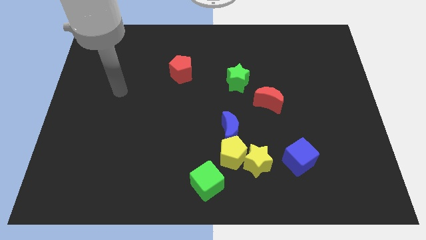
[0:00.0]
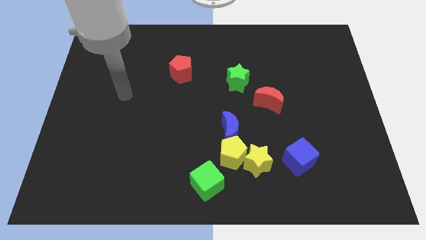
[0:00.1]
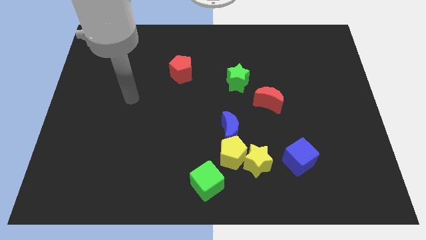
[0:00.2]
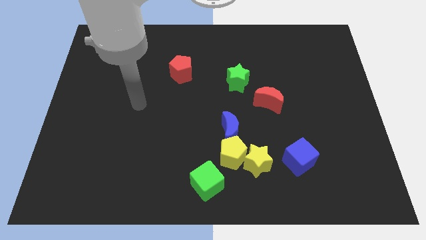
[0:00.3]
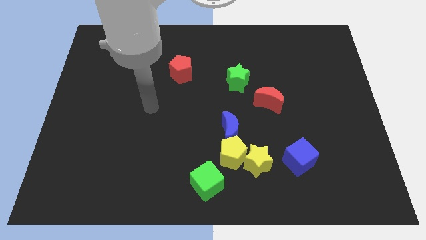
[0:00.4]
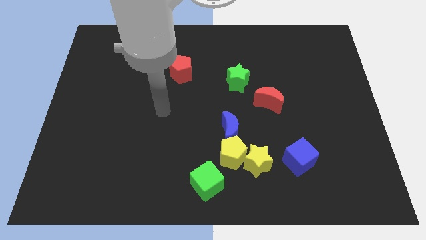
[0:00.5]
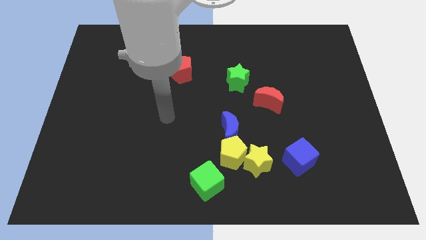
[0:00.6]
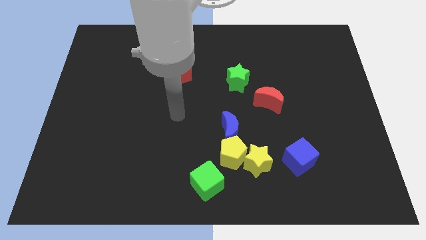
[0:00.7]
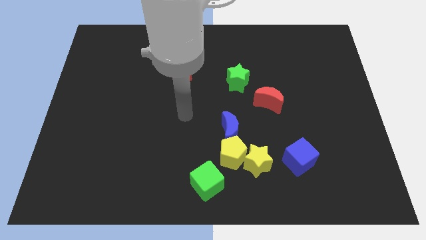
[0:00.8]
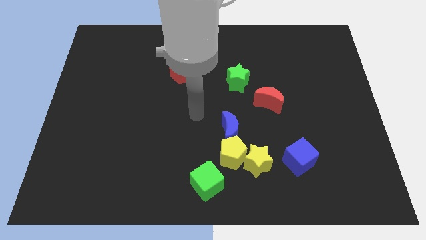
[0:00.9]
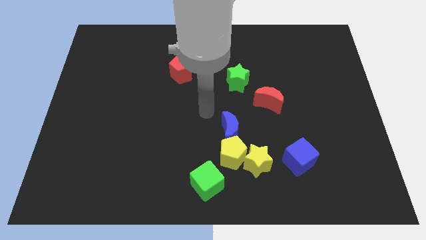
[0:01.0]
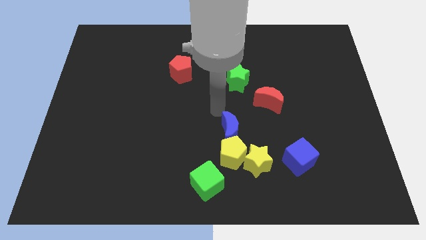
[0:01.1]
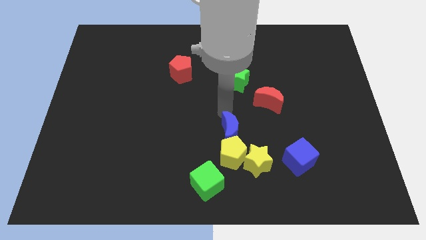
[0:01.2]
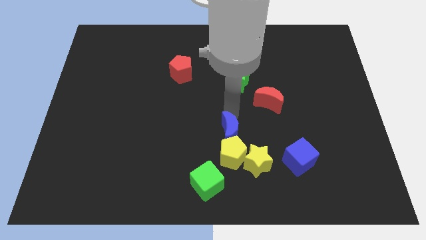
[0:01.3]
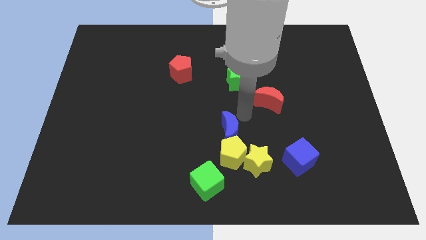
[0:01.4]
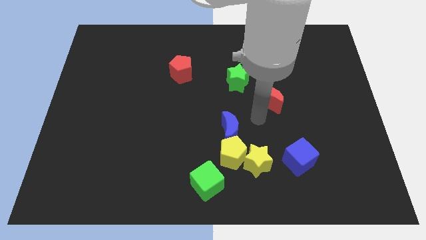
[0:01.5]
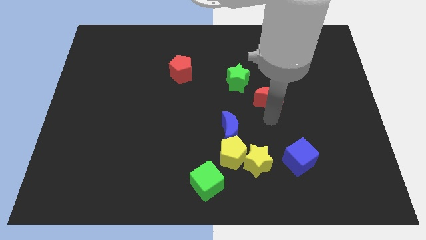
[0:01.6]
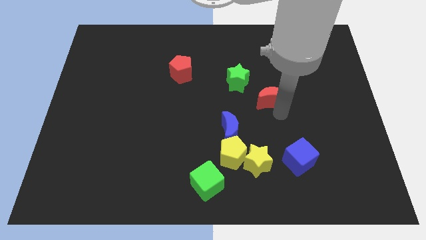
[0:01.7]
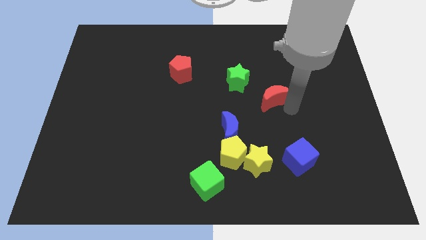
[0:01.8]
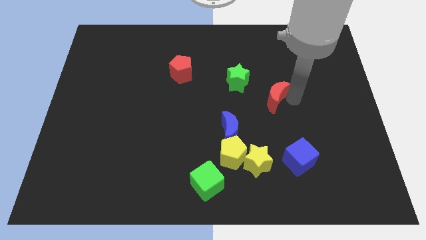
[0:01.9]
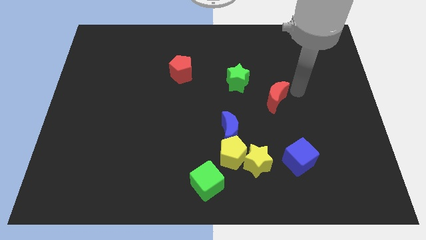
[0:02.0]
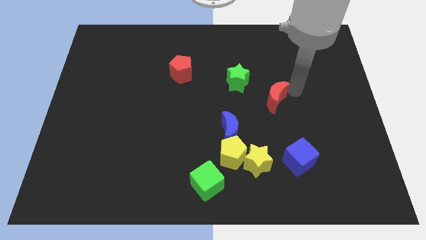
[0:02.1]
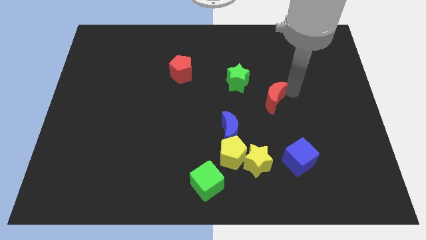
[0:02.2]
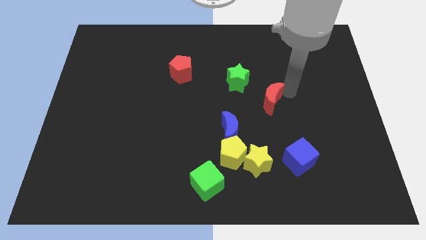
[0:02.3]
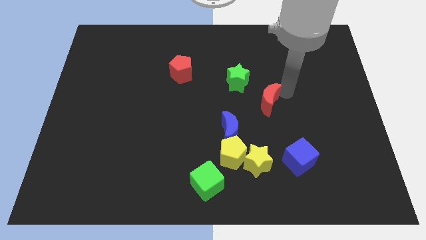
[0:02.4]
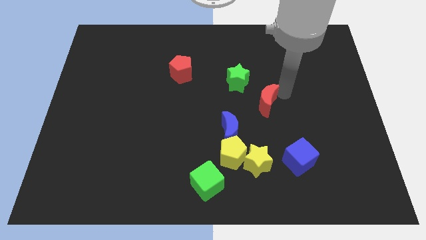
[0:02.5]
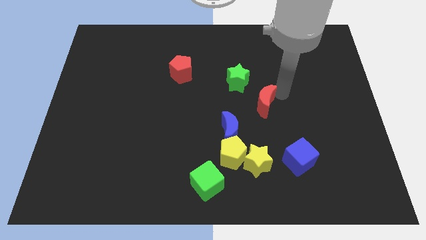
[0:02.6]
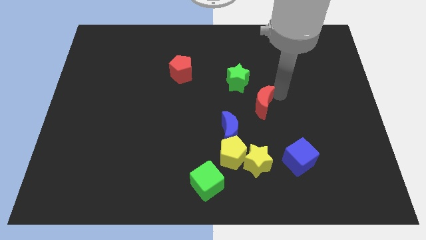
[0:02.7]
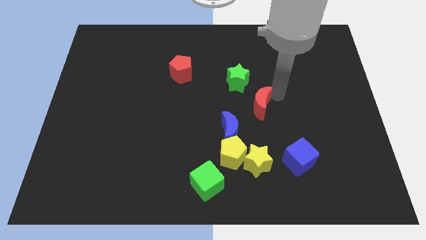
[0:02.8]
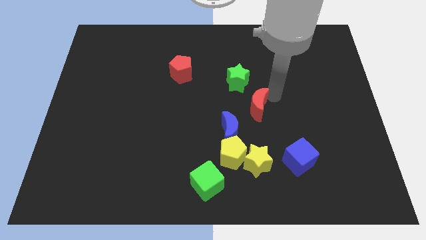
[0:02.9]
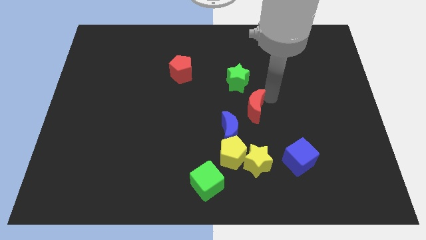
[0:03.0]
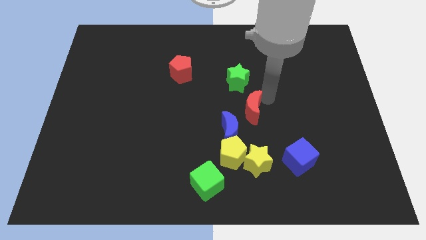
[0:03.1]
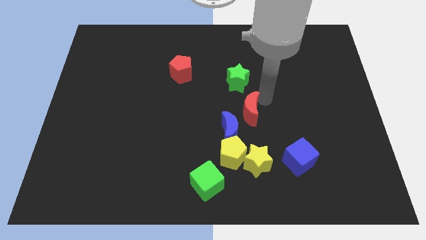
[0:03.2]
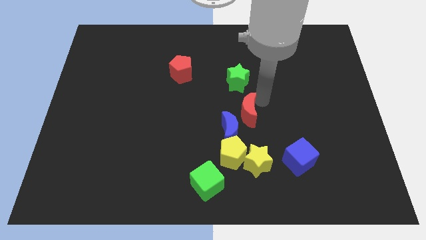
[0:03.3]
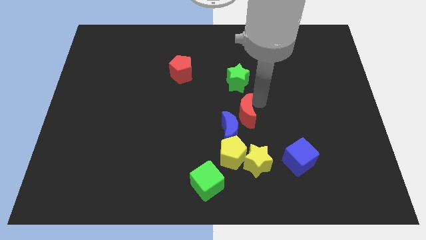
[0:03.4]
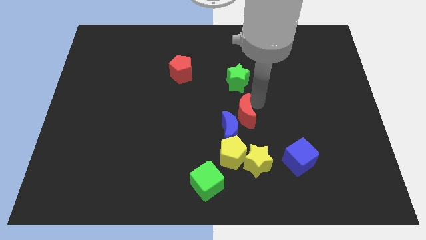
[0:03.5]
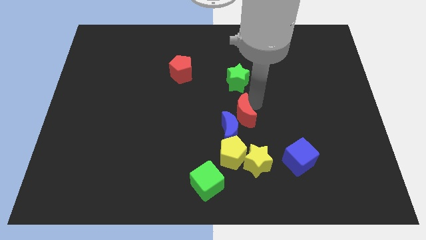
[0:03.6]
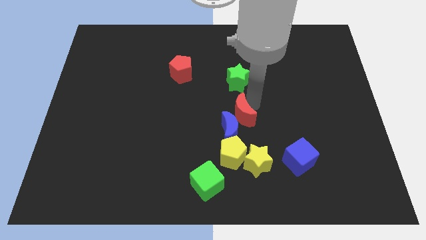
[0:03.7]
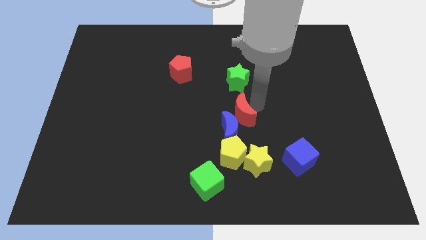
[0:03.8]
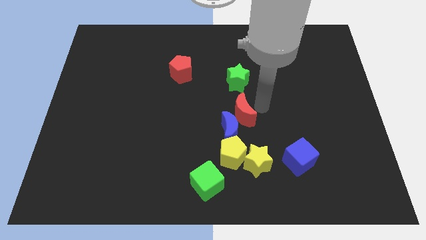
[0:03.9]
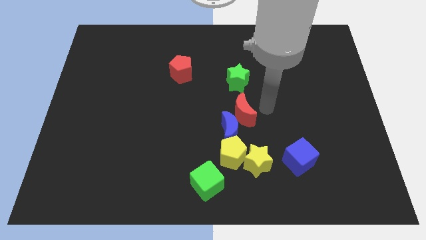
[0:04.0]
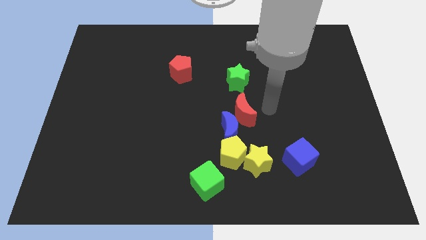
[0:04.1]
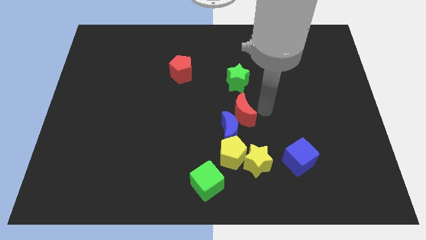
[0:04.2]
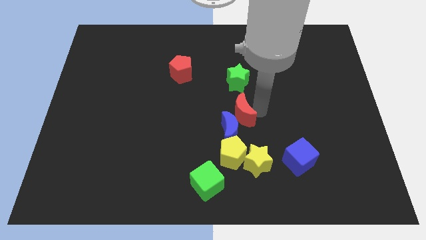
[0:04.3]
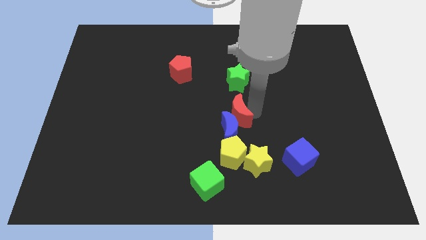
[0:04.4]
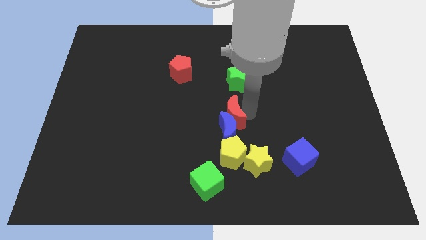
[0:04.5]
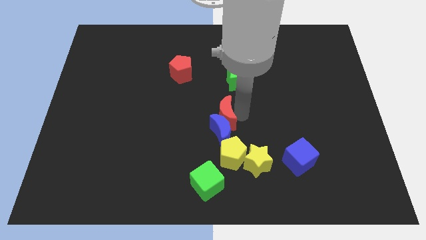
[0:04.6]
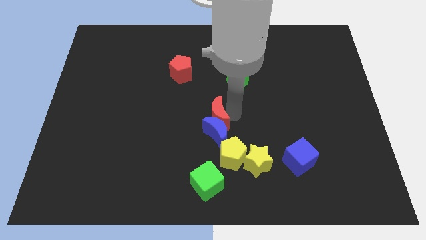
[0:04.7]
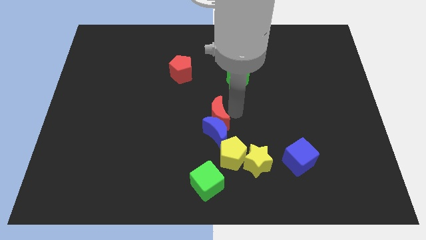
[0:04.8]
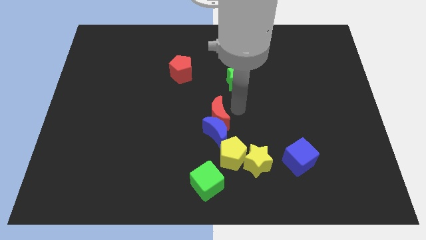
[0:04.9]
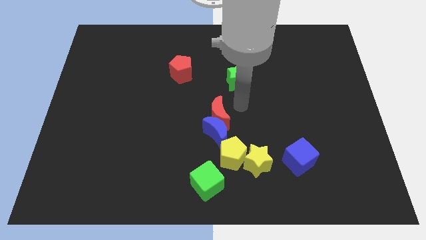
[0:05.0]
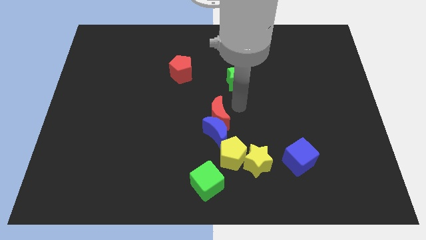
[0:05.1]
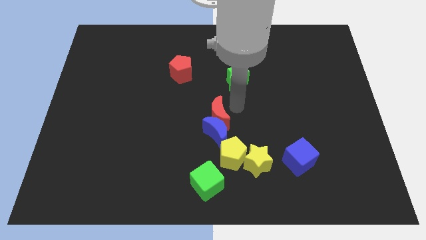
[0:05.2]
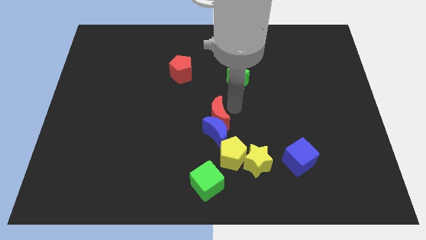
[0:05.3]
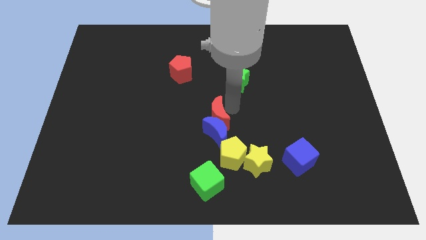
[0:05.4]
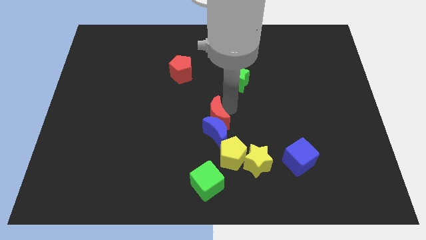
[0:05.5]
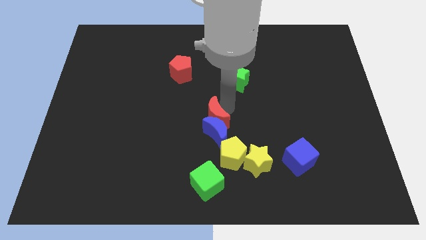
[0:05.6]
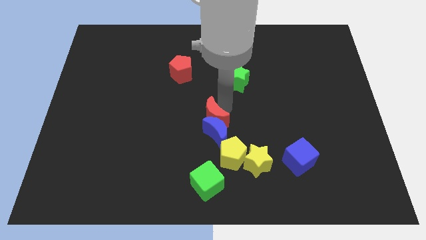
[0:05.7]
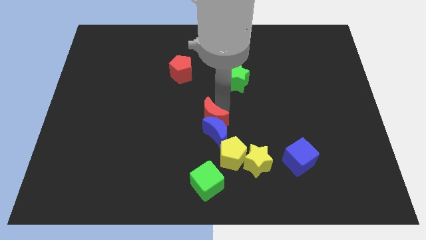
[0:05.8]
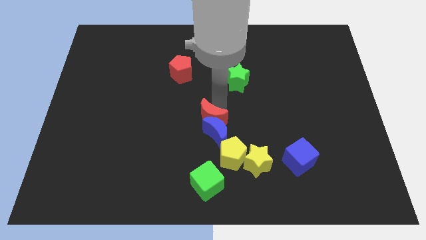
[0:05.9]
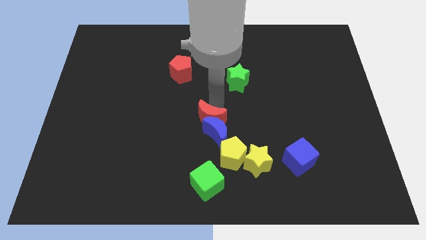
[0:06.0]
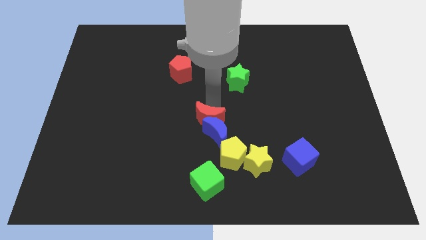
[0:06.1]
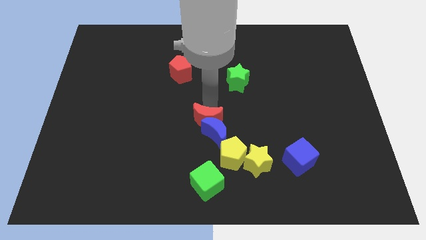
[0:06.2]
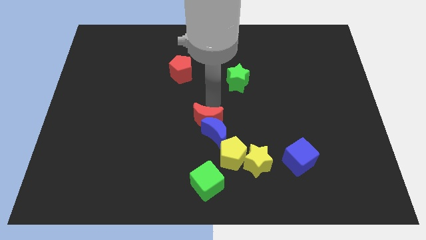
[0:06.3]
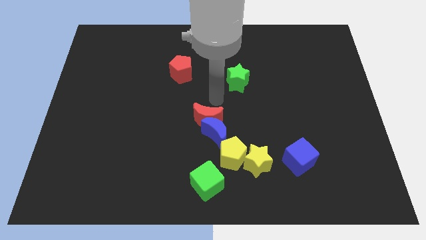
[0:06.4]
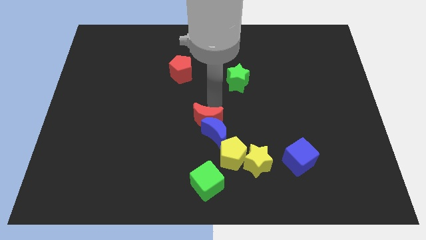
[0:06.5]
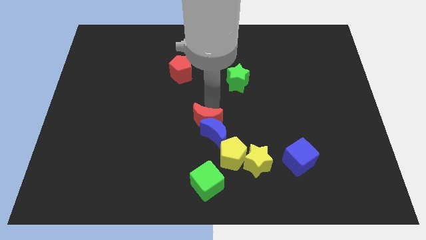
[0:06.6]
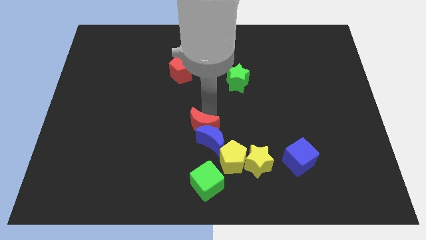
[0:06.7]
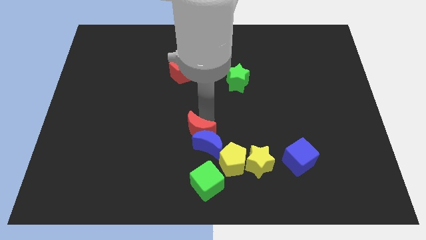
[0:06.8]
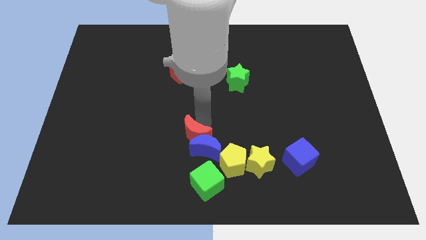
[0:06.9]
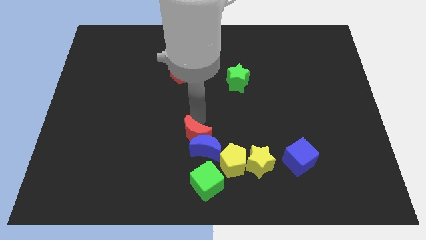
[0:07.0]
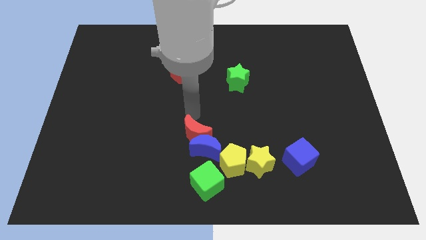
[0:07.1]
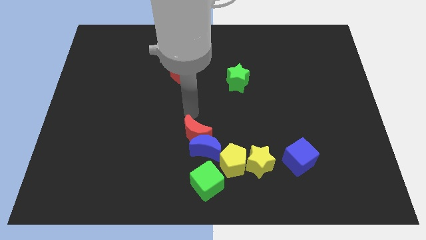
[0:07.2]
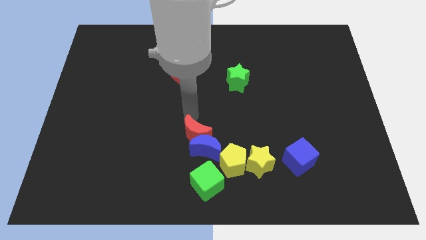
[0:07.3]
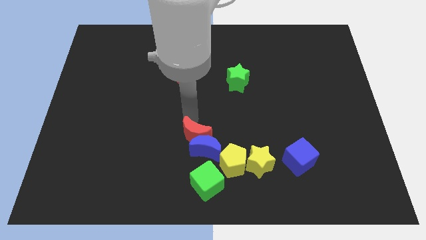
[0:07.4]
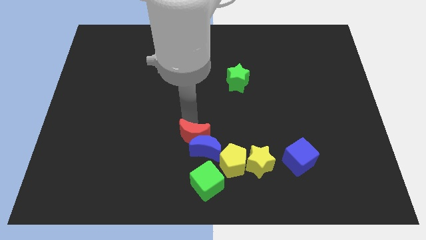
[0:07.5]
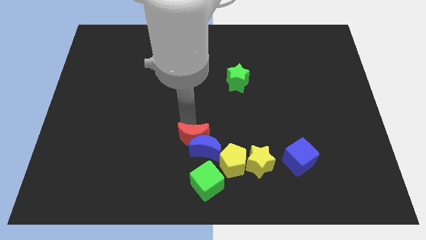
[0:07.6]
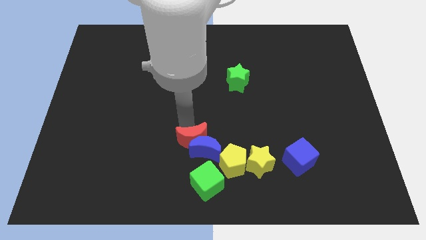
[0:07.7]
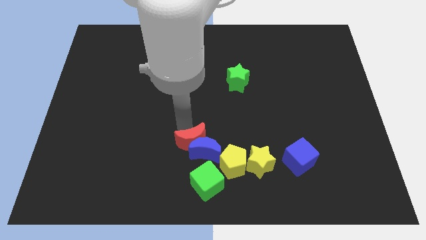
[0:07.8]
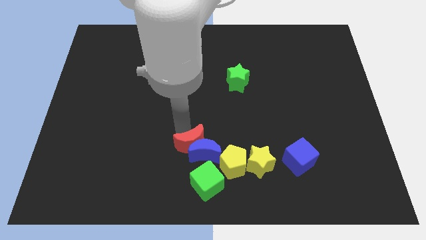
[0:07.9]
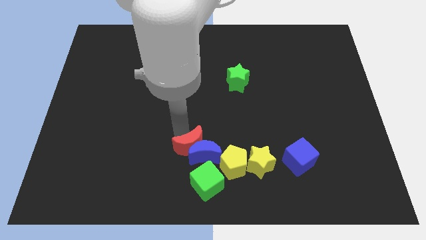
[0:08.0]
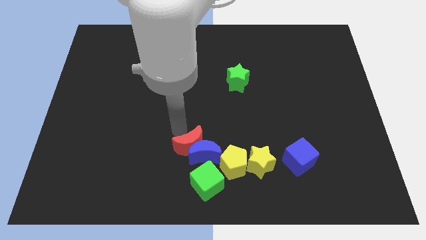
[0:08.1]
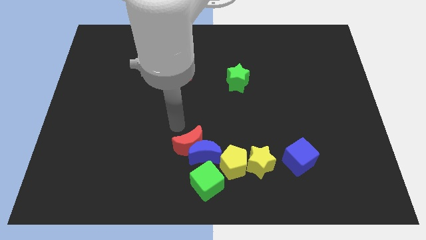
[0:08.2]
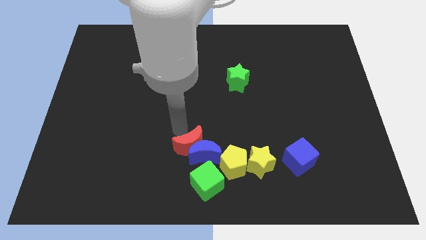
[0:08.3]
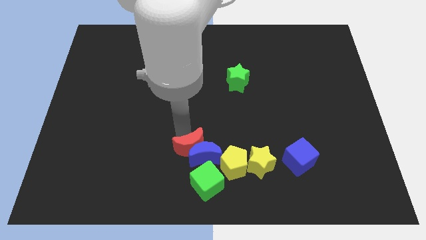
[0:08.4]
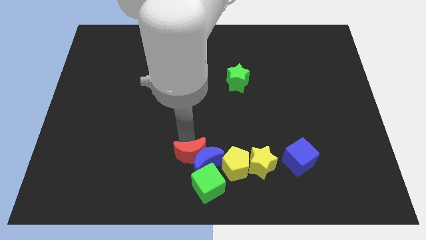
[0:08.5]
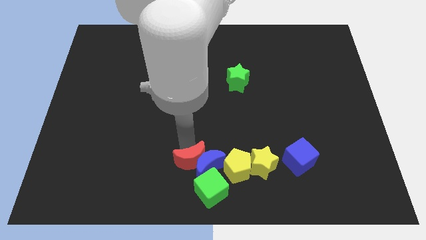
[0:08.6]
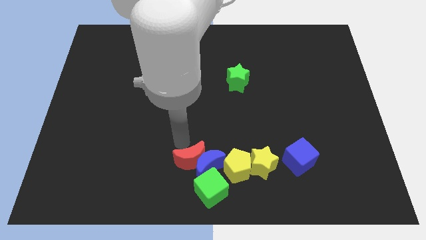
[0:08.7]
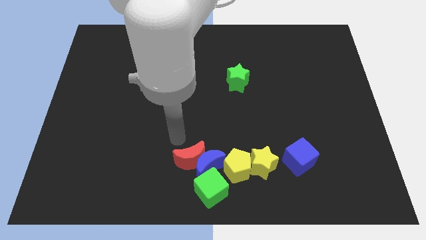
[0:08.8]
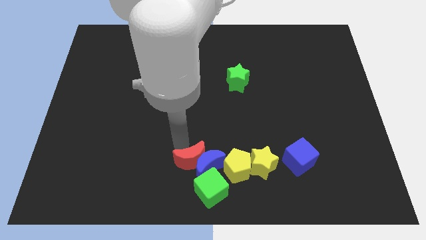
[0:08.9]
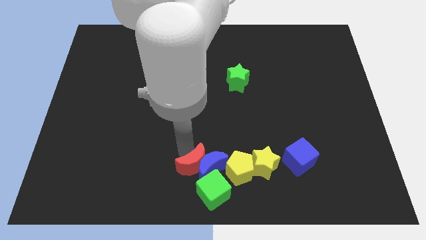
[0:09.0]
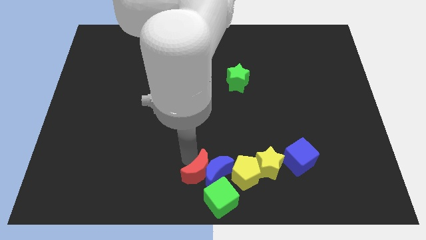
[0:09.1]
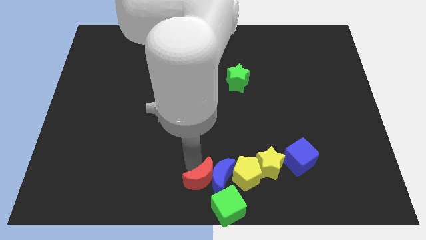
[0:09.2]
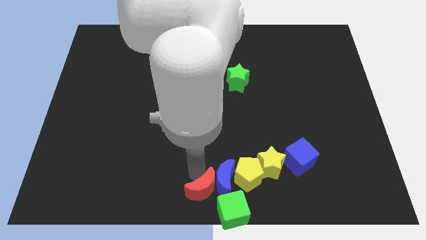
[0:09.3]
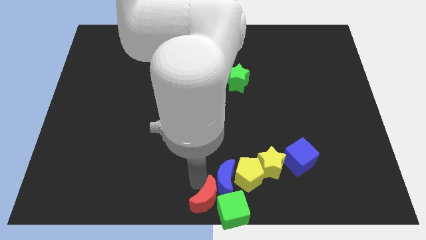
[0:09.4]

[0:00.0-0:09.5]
push the red moon to the green cube
